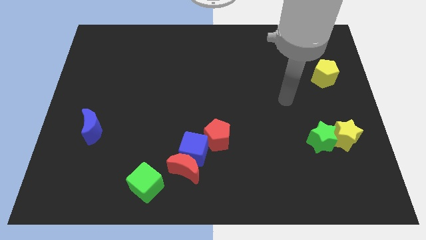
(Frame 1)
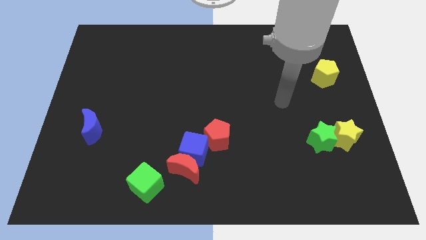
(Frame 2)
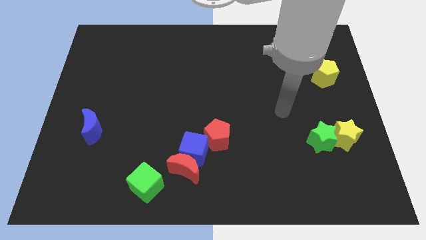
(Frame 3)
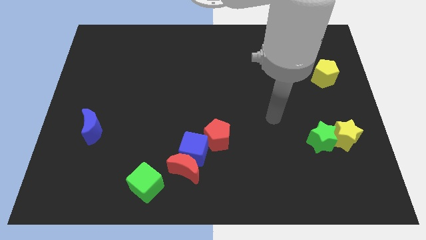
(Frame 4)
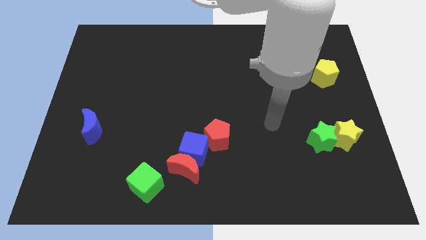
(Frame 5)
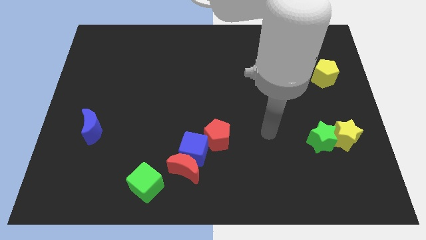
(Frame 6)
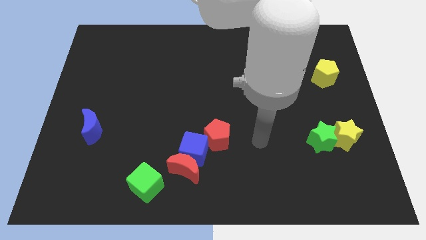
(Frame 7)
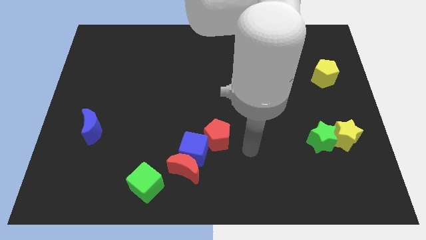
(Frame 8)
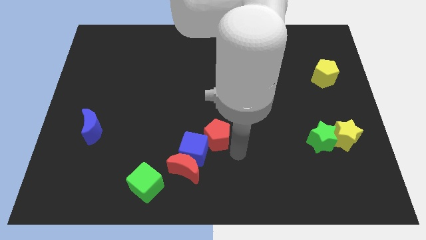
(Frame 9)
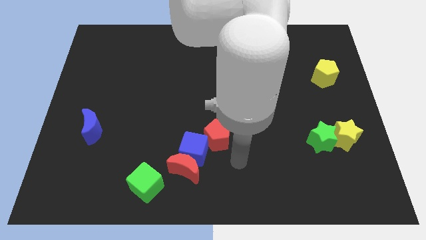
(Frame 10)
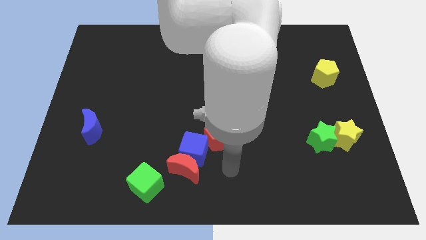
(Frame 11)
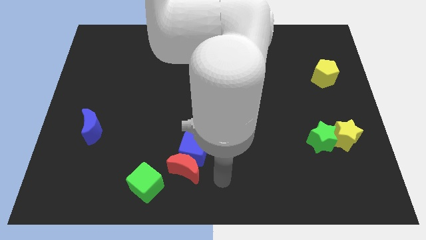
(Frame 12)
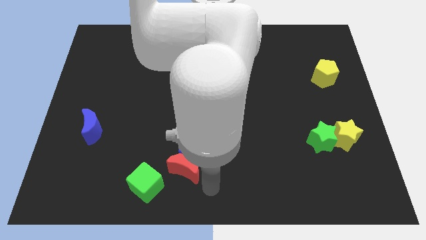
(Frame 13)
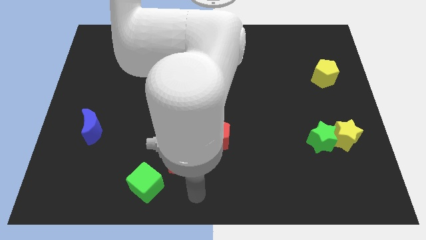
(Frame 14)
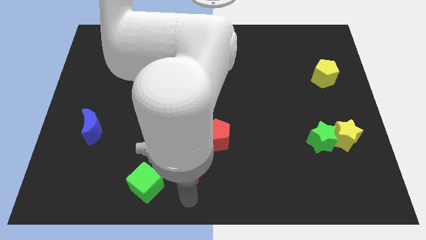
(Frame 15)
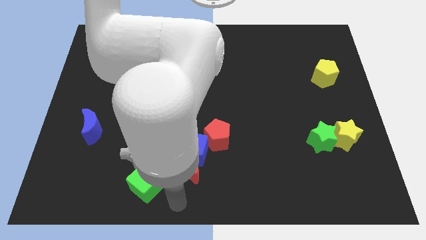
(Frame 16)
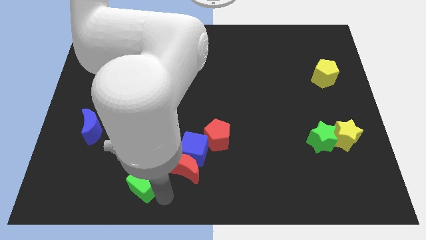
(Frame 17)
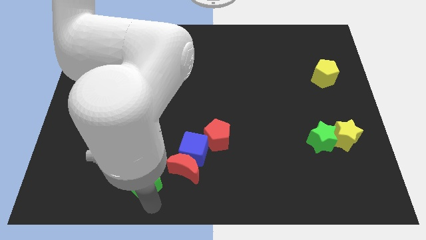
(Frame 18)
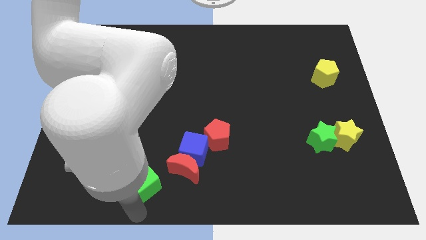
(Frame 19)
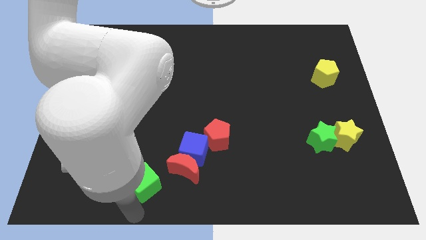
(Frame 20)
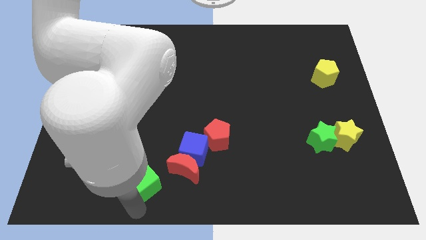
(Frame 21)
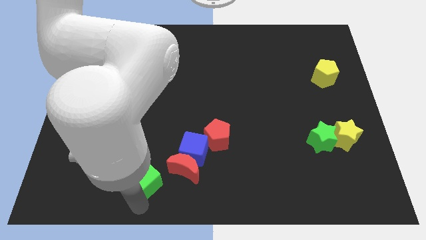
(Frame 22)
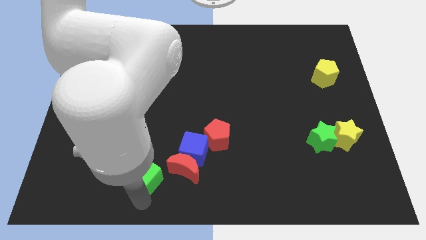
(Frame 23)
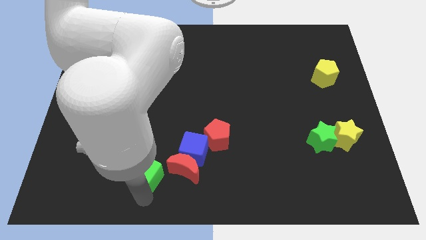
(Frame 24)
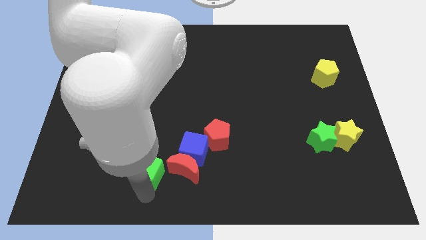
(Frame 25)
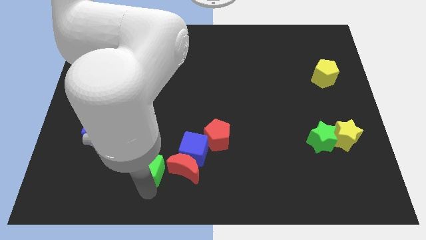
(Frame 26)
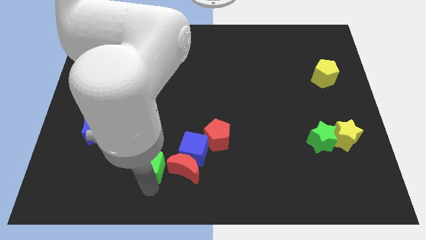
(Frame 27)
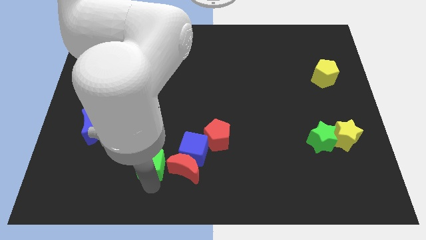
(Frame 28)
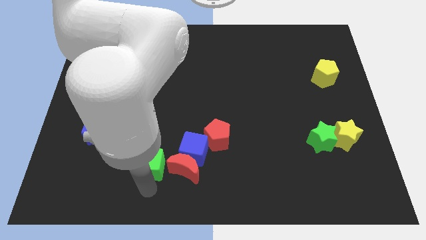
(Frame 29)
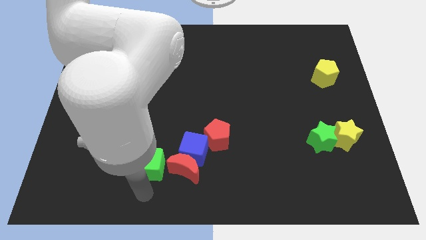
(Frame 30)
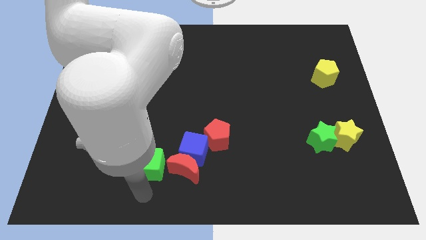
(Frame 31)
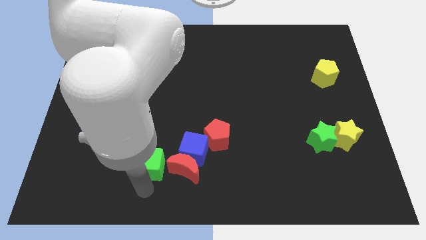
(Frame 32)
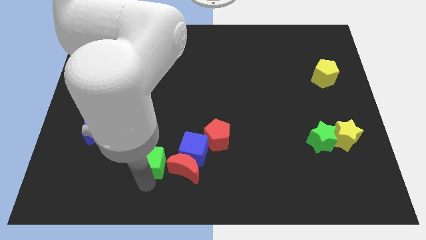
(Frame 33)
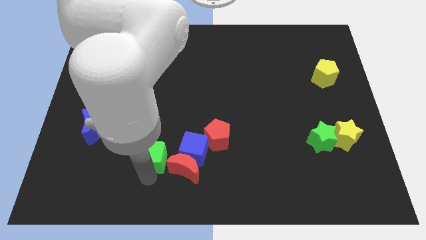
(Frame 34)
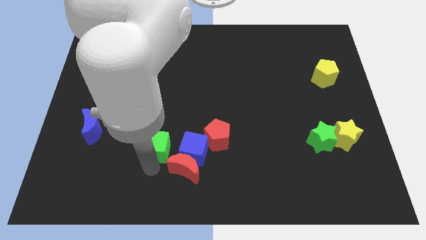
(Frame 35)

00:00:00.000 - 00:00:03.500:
slightly push the green cube up

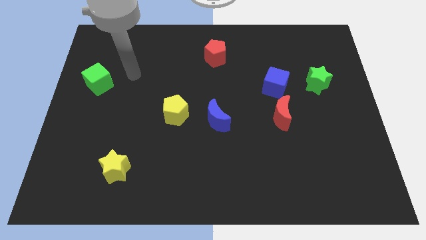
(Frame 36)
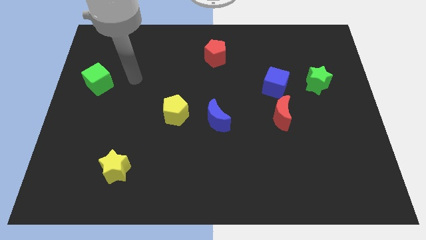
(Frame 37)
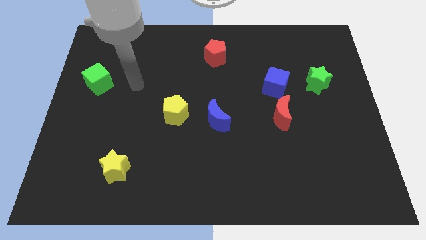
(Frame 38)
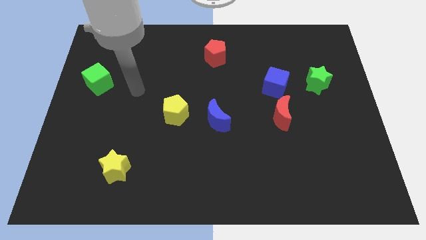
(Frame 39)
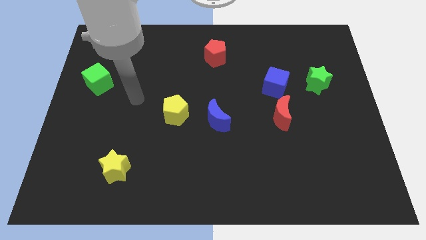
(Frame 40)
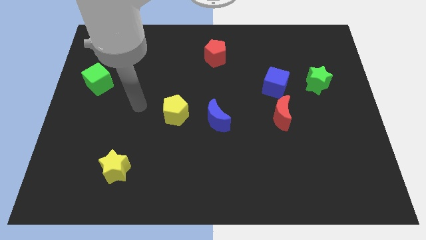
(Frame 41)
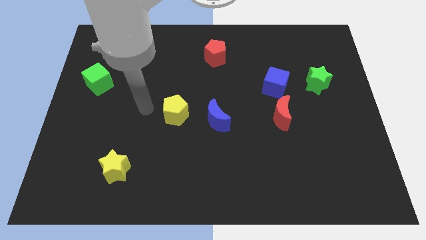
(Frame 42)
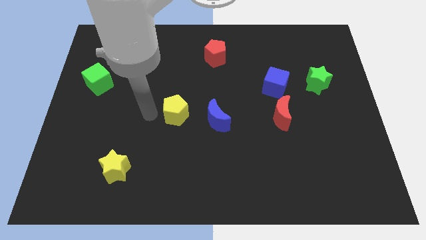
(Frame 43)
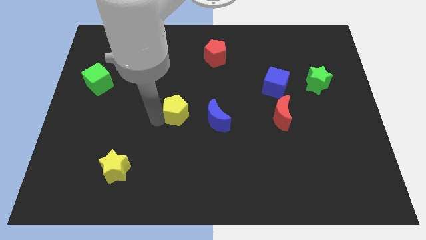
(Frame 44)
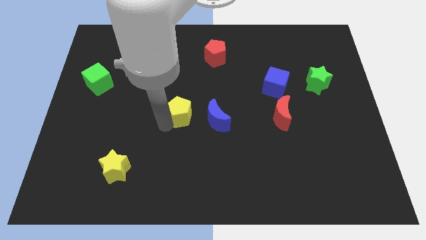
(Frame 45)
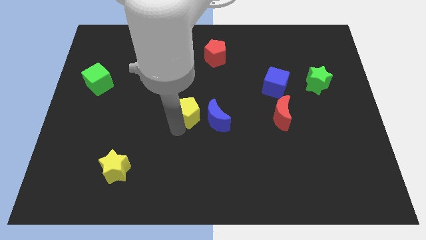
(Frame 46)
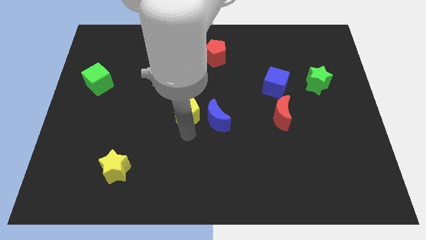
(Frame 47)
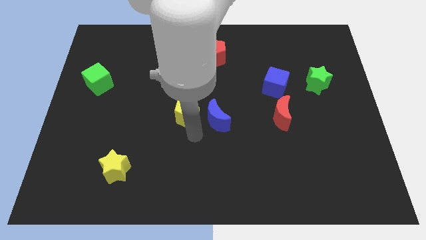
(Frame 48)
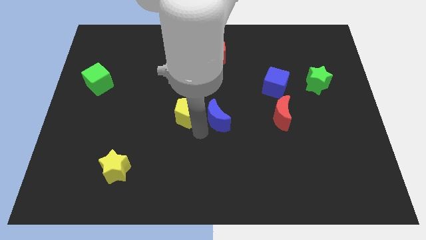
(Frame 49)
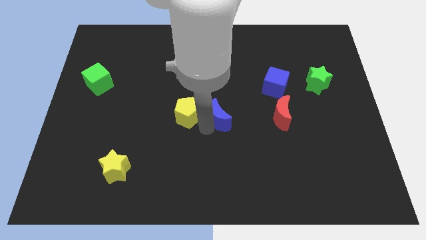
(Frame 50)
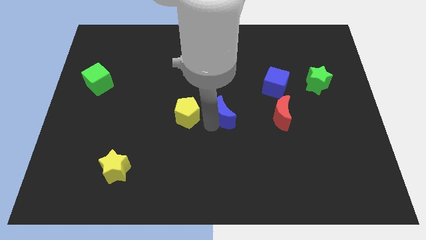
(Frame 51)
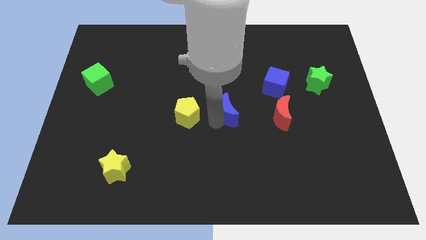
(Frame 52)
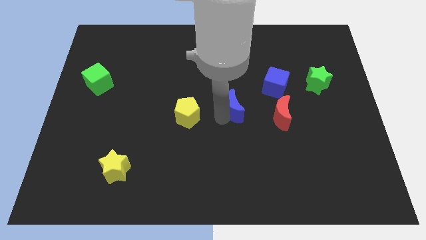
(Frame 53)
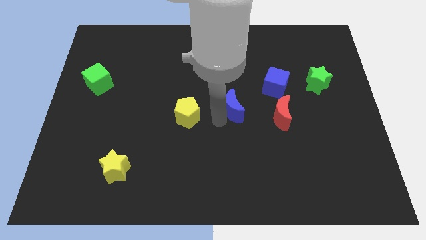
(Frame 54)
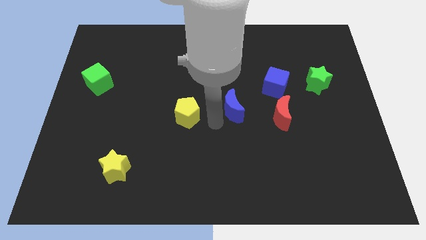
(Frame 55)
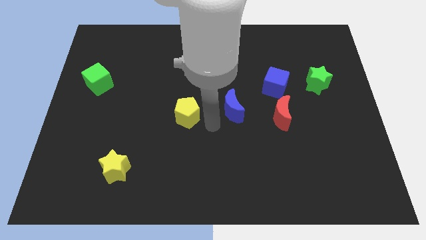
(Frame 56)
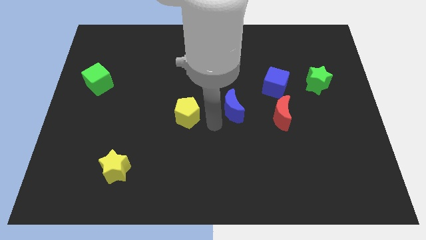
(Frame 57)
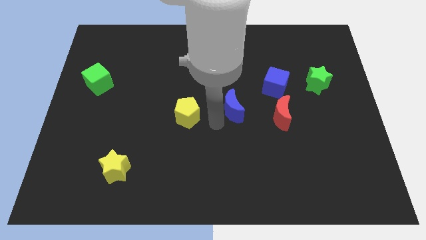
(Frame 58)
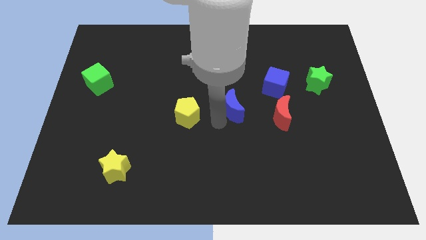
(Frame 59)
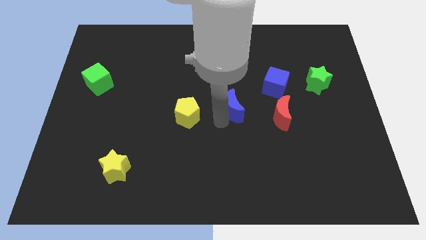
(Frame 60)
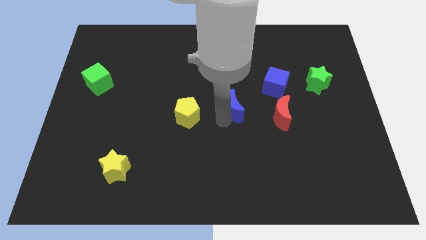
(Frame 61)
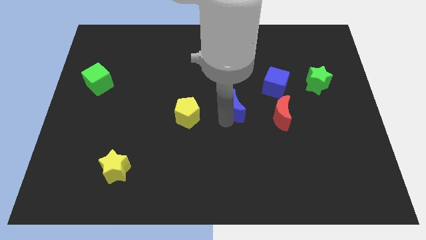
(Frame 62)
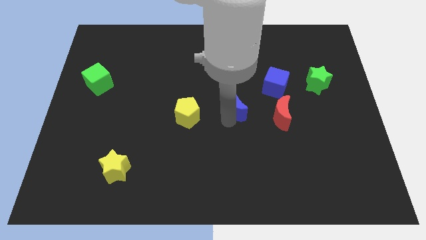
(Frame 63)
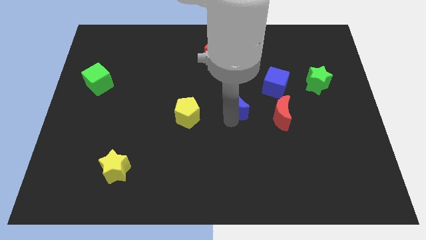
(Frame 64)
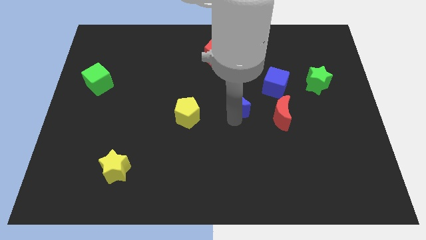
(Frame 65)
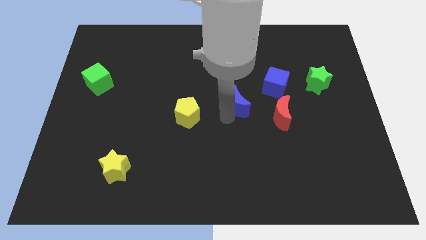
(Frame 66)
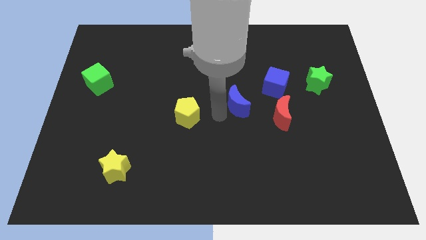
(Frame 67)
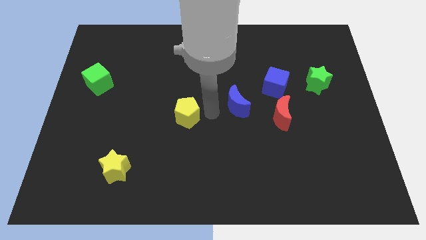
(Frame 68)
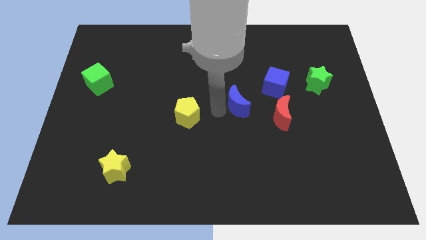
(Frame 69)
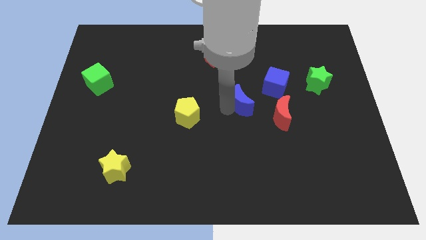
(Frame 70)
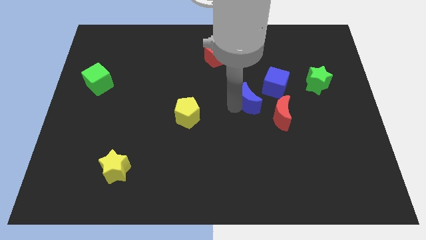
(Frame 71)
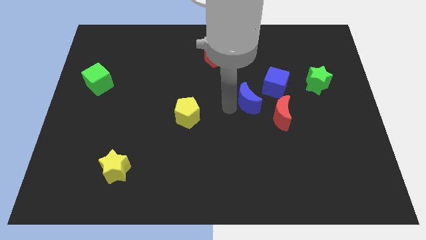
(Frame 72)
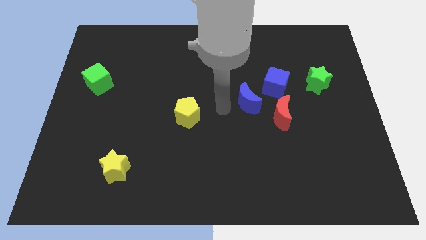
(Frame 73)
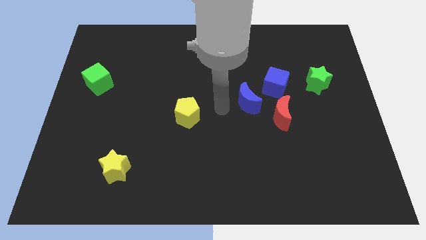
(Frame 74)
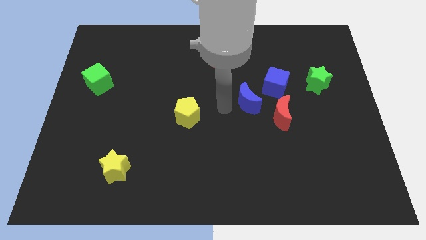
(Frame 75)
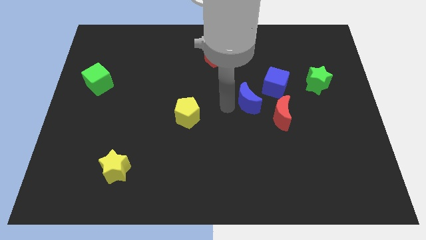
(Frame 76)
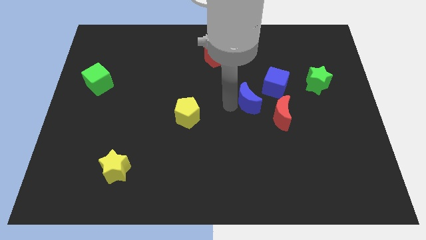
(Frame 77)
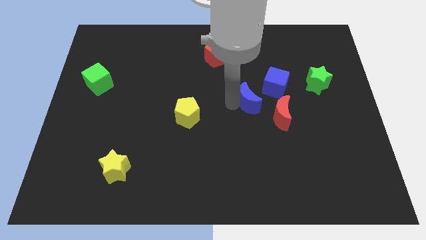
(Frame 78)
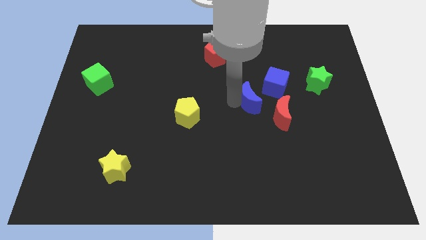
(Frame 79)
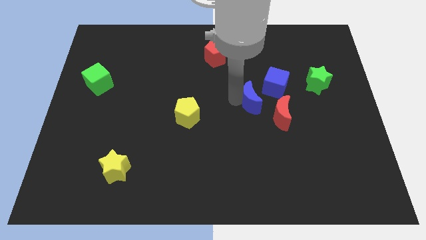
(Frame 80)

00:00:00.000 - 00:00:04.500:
slightly move the blue moon to the right
